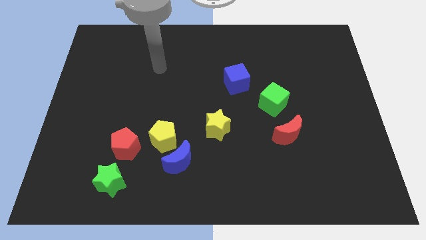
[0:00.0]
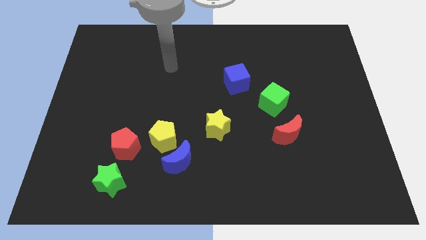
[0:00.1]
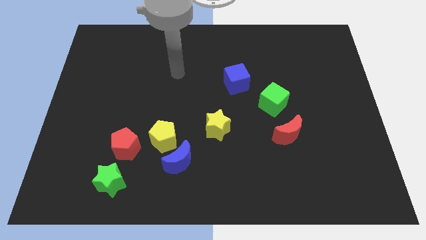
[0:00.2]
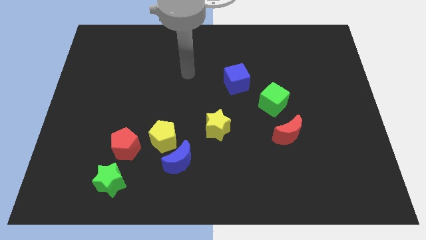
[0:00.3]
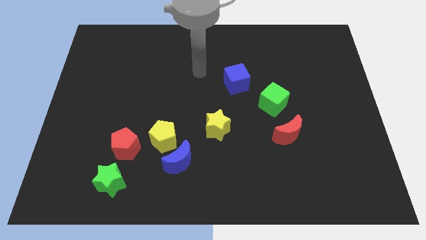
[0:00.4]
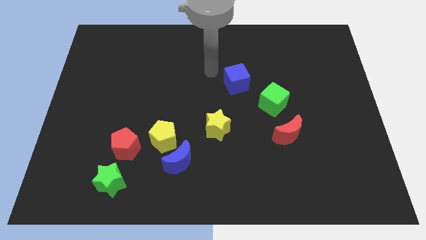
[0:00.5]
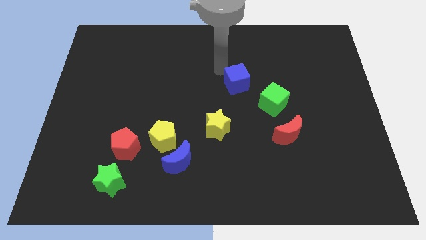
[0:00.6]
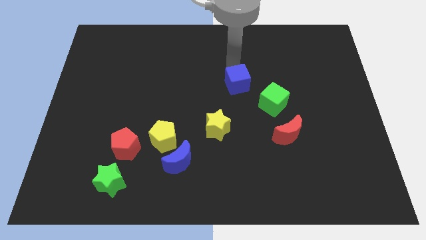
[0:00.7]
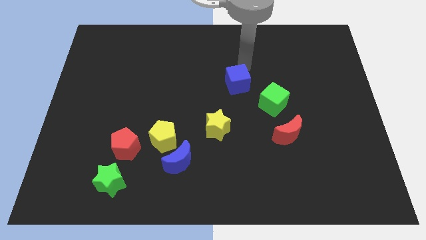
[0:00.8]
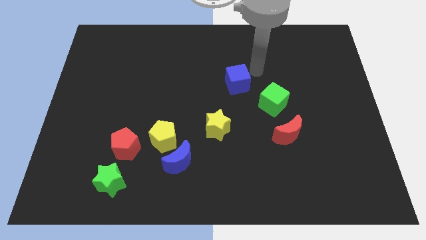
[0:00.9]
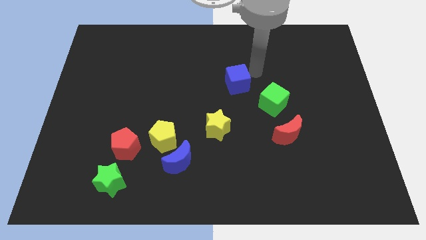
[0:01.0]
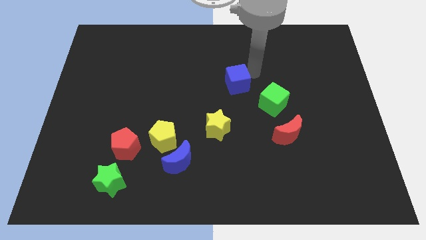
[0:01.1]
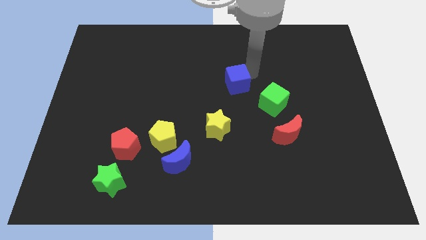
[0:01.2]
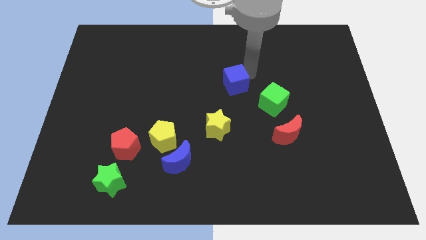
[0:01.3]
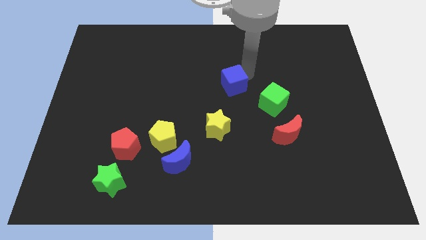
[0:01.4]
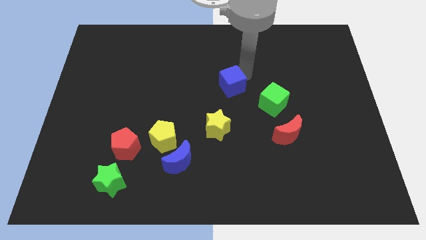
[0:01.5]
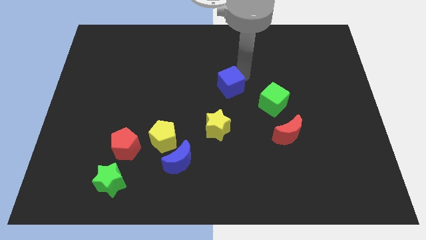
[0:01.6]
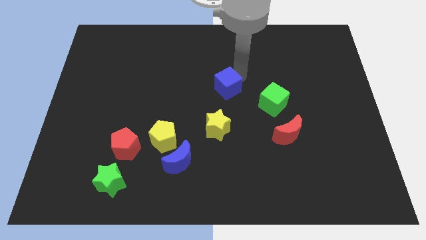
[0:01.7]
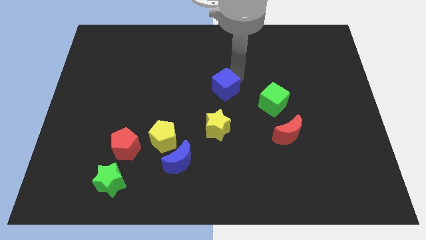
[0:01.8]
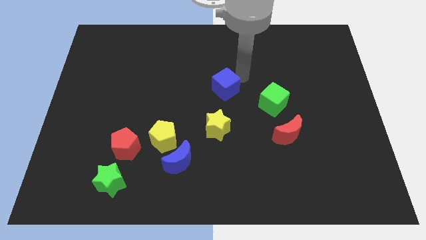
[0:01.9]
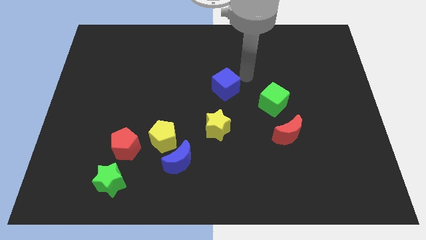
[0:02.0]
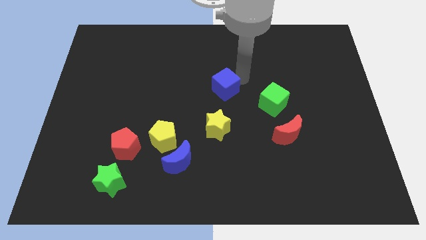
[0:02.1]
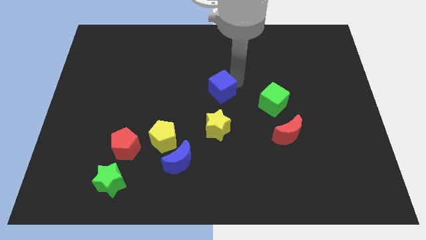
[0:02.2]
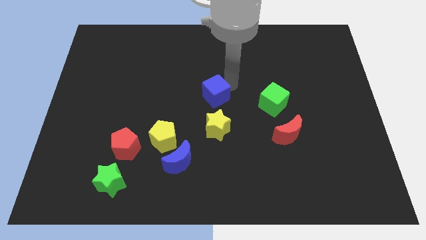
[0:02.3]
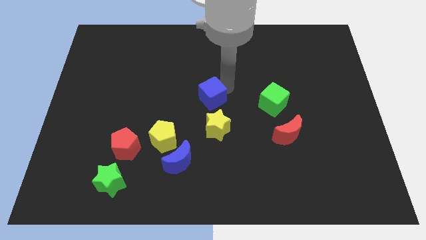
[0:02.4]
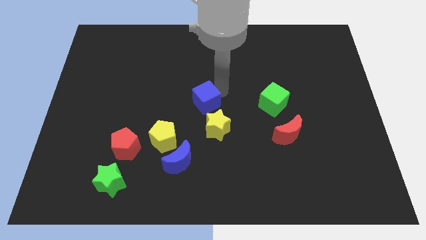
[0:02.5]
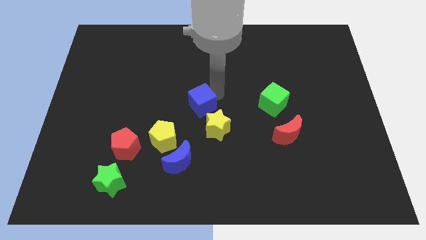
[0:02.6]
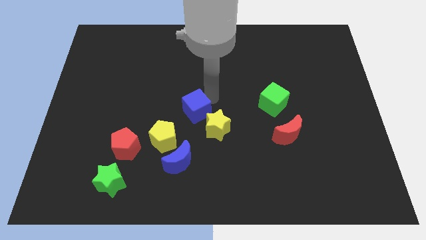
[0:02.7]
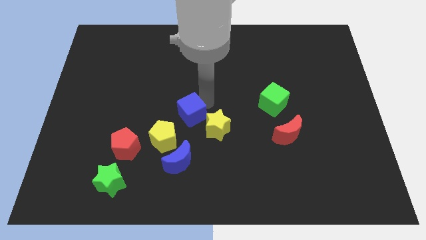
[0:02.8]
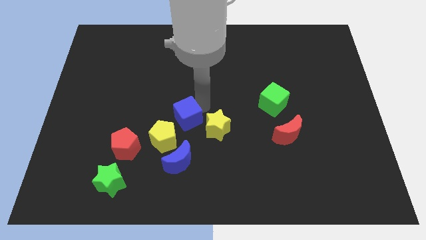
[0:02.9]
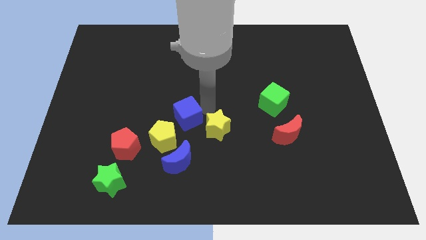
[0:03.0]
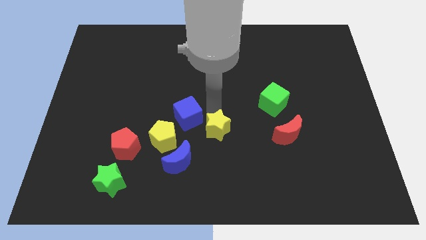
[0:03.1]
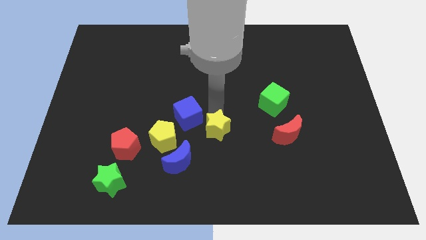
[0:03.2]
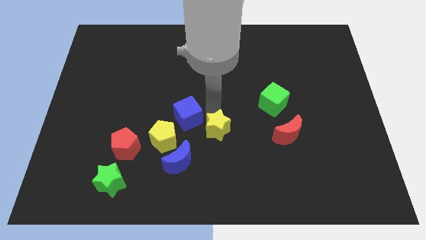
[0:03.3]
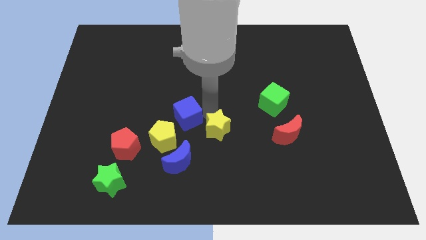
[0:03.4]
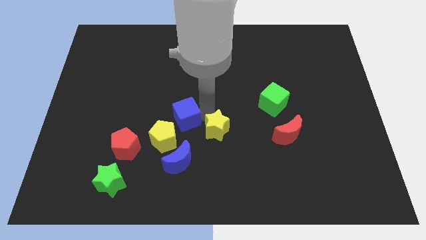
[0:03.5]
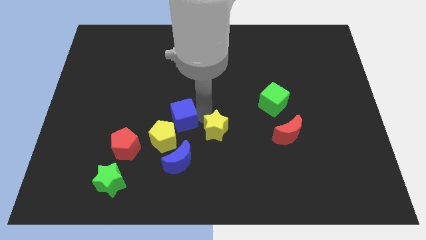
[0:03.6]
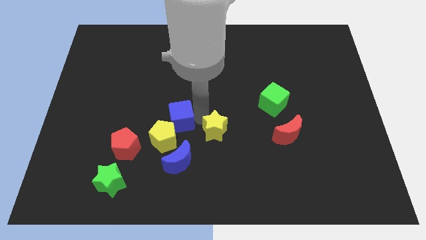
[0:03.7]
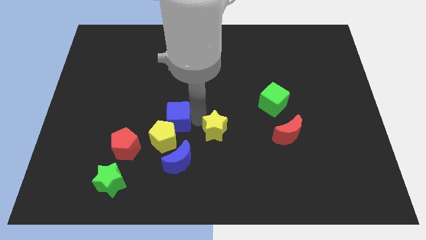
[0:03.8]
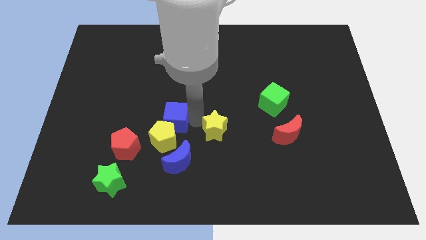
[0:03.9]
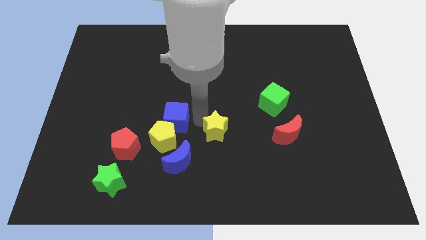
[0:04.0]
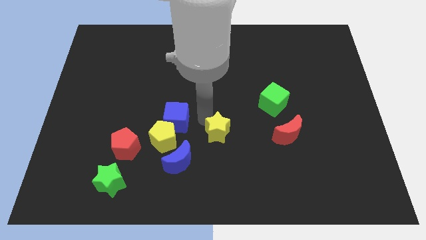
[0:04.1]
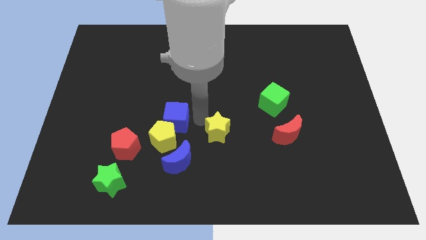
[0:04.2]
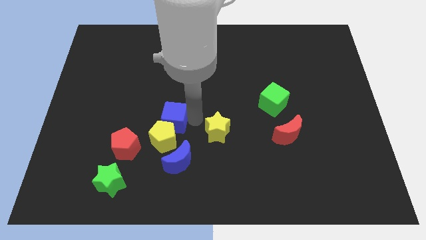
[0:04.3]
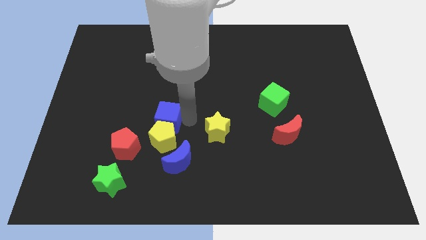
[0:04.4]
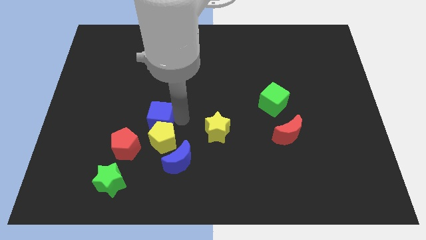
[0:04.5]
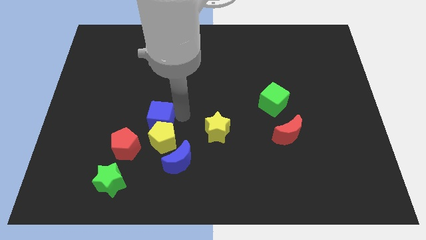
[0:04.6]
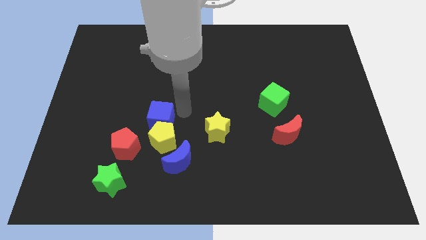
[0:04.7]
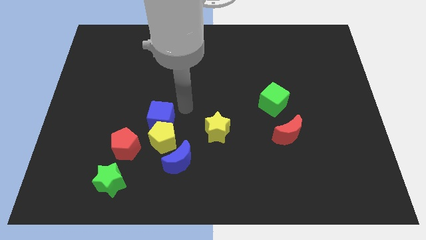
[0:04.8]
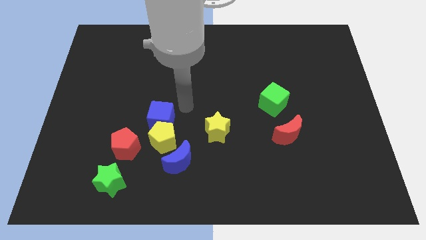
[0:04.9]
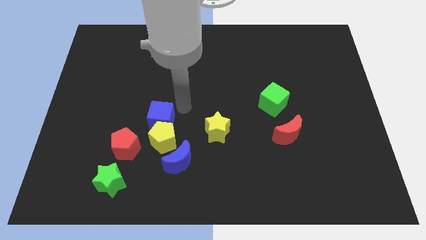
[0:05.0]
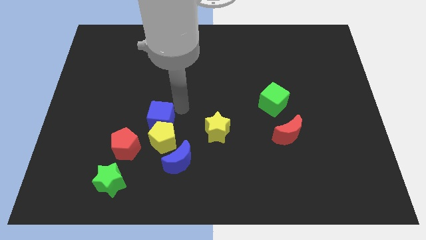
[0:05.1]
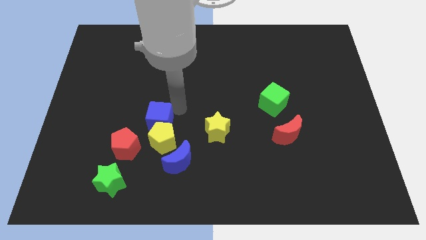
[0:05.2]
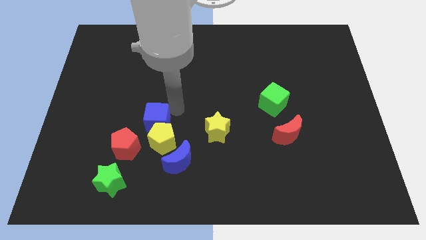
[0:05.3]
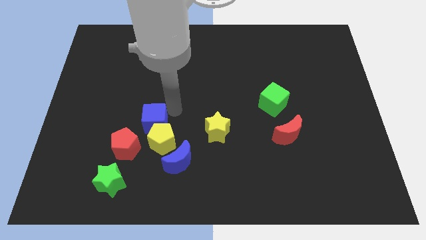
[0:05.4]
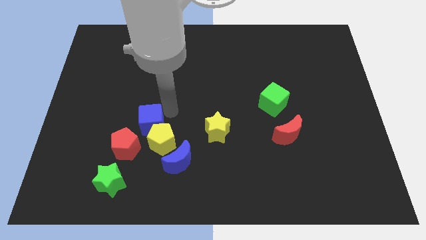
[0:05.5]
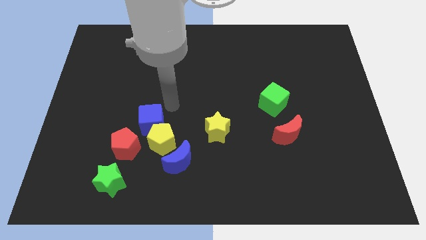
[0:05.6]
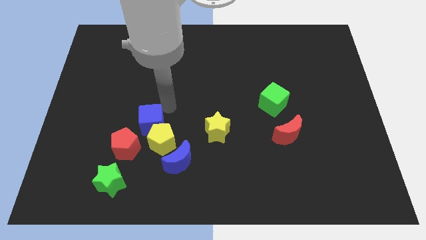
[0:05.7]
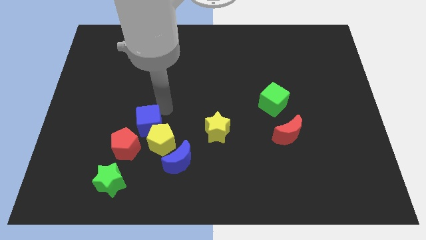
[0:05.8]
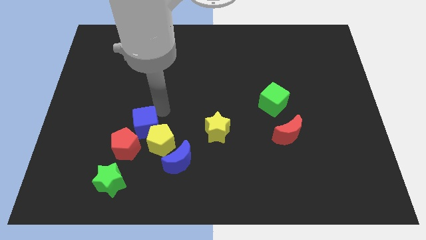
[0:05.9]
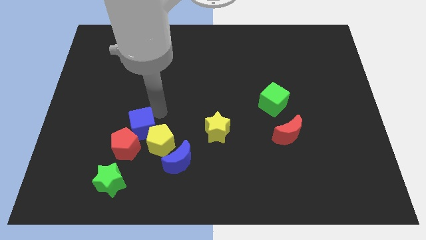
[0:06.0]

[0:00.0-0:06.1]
push the blue cube close to the red pentagon

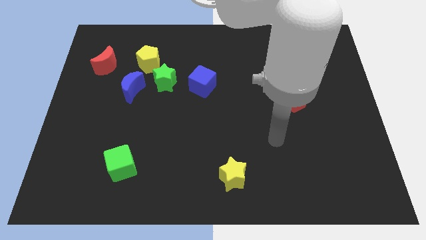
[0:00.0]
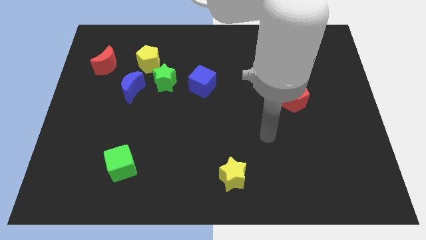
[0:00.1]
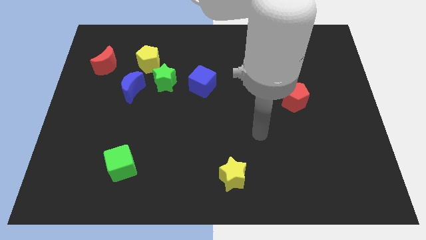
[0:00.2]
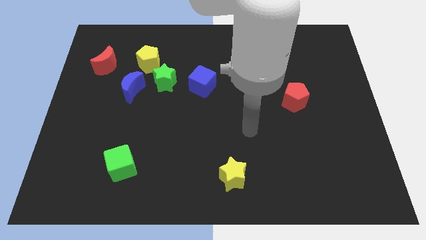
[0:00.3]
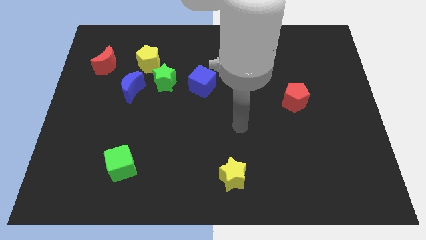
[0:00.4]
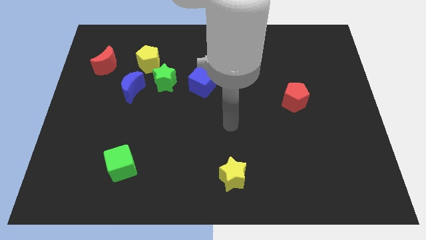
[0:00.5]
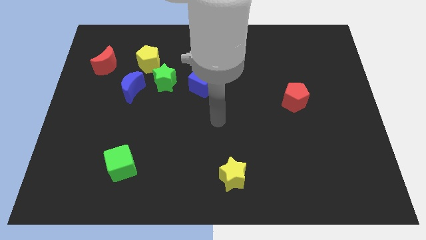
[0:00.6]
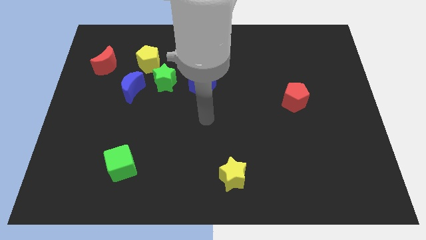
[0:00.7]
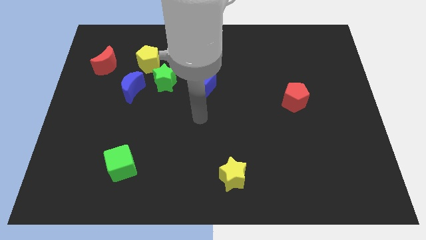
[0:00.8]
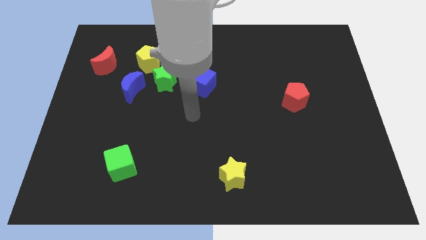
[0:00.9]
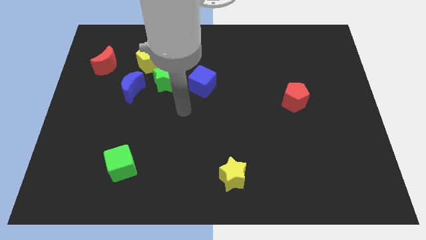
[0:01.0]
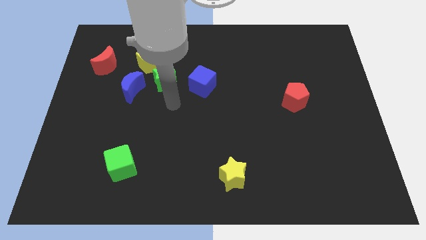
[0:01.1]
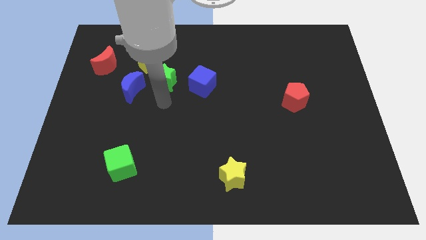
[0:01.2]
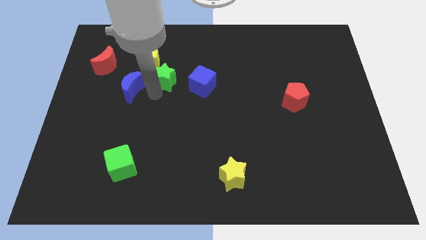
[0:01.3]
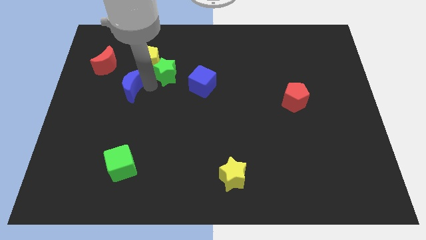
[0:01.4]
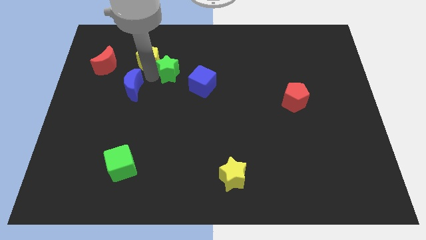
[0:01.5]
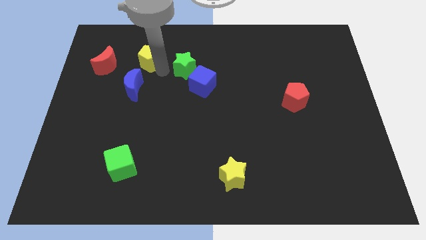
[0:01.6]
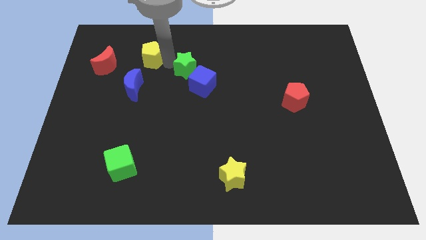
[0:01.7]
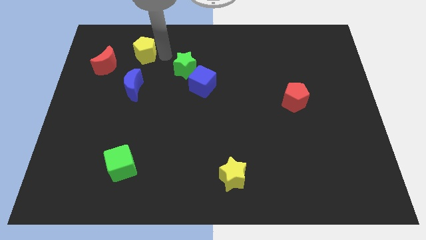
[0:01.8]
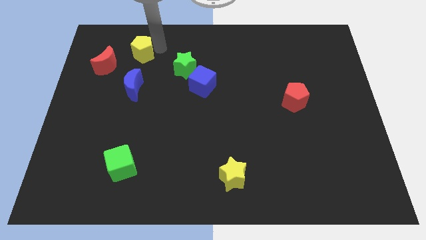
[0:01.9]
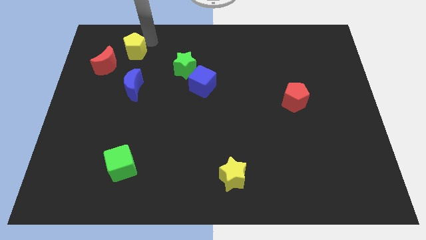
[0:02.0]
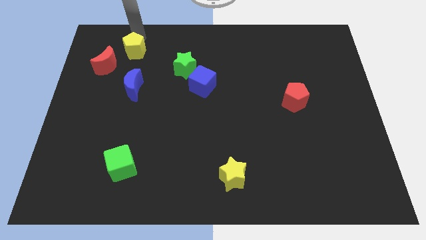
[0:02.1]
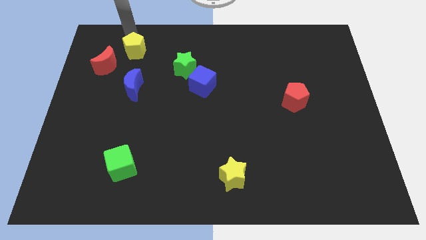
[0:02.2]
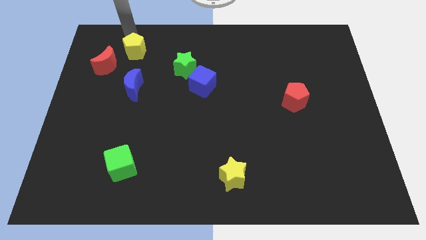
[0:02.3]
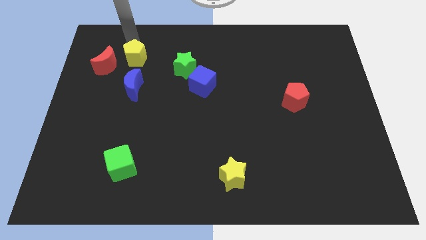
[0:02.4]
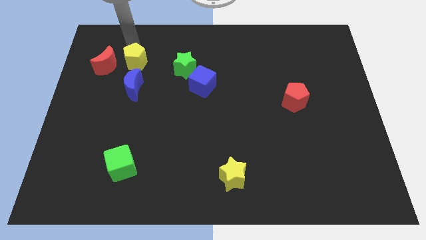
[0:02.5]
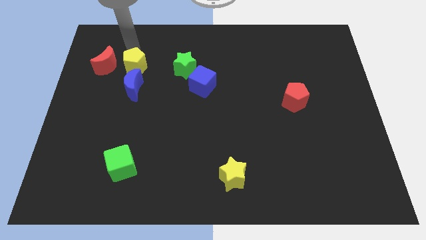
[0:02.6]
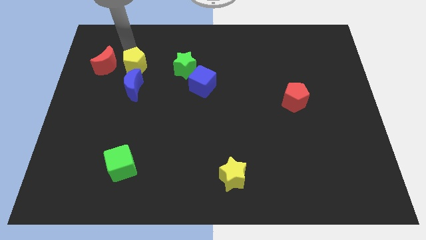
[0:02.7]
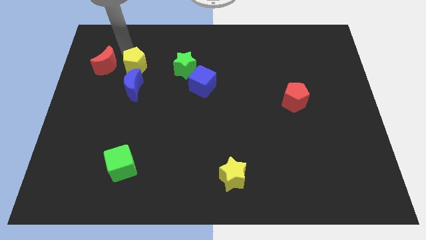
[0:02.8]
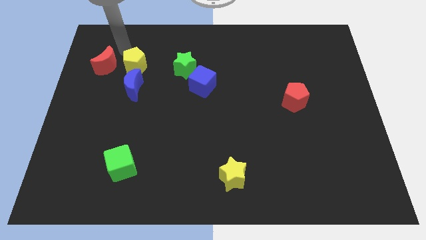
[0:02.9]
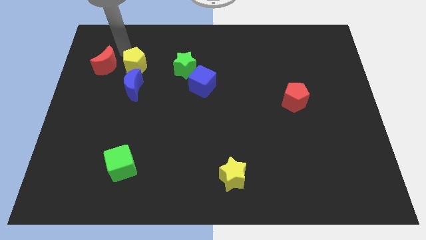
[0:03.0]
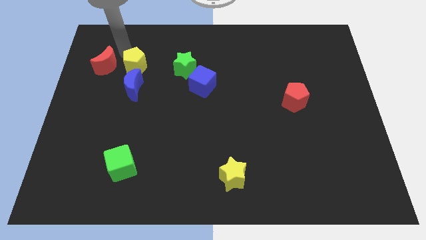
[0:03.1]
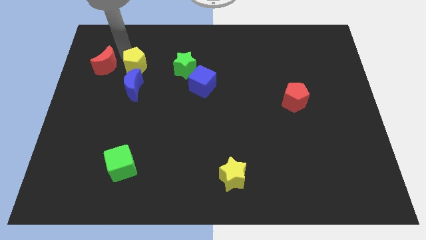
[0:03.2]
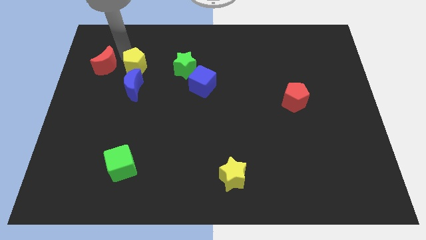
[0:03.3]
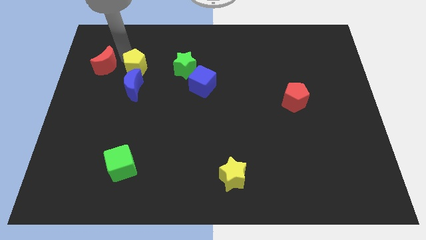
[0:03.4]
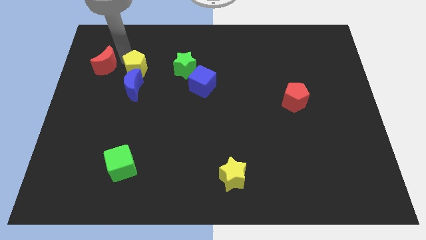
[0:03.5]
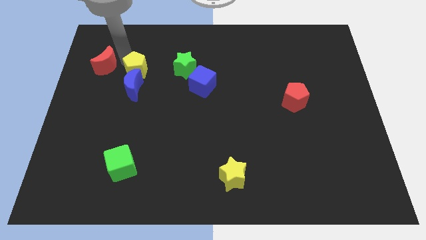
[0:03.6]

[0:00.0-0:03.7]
put the yellow pentagon next to the blue moon
